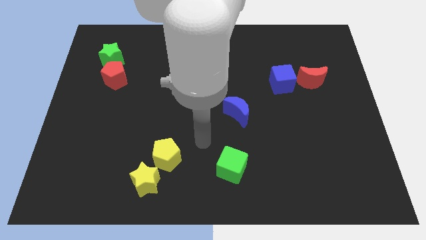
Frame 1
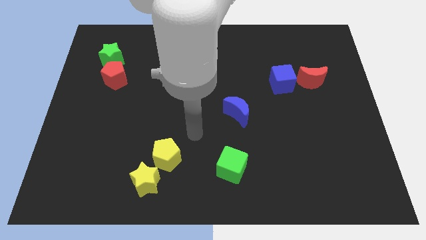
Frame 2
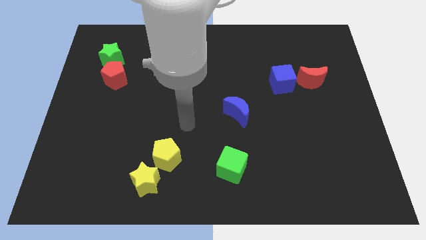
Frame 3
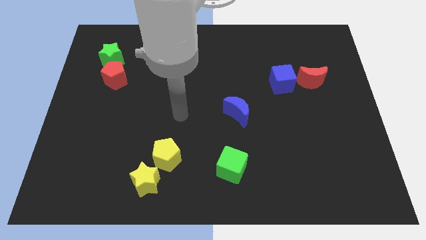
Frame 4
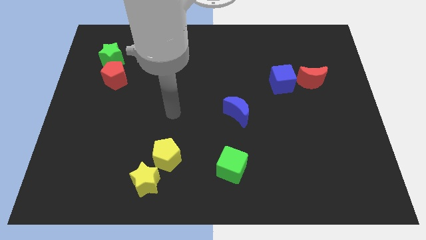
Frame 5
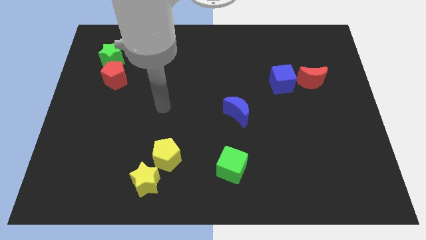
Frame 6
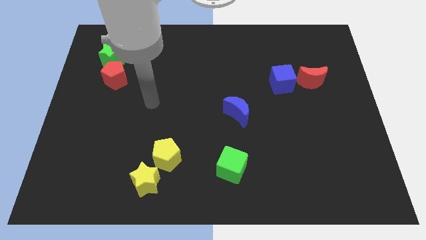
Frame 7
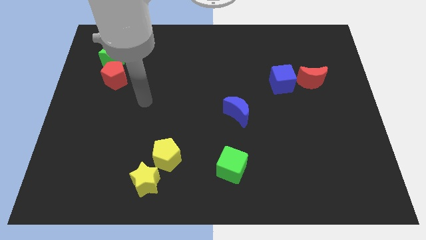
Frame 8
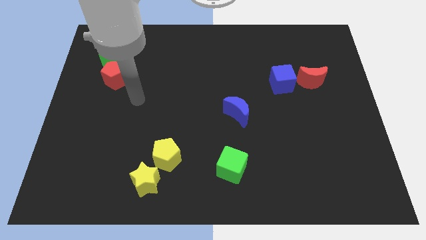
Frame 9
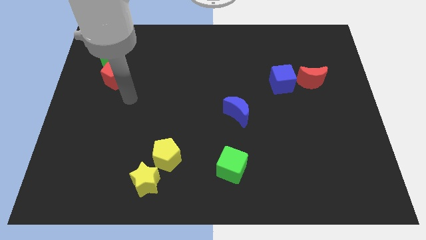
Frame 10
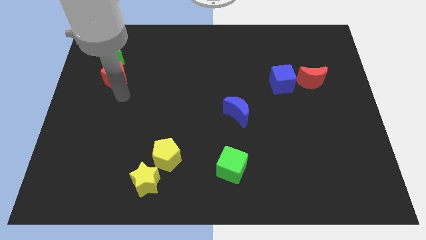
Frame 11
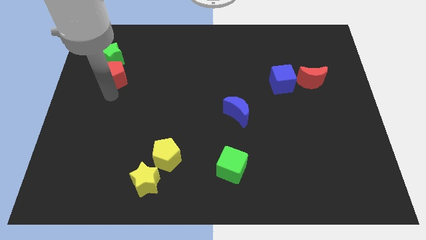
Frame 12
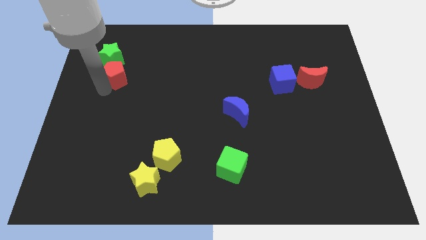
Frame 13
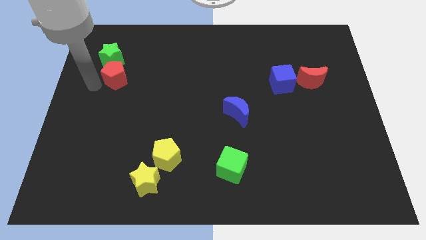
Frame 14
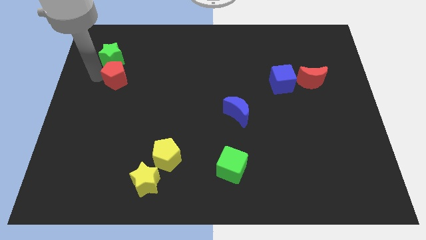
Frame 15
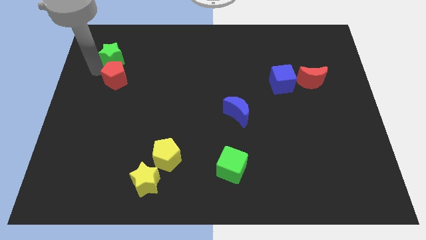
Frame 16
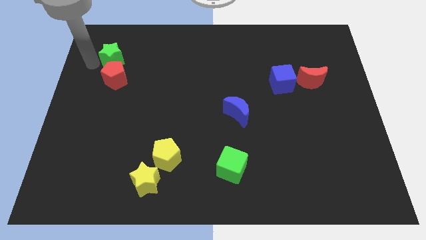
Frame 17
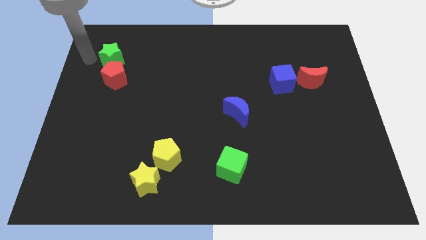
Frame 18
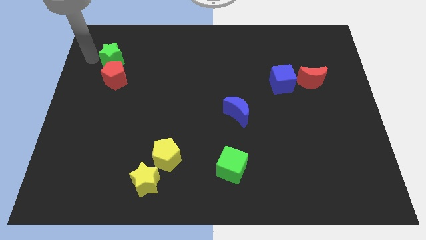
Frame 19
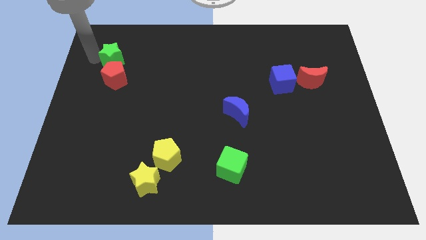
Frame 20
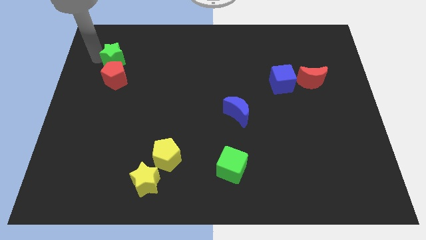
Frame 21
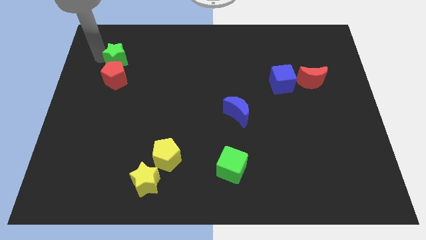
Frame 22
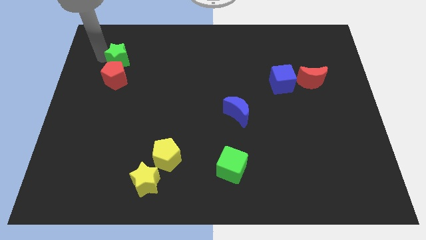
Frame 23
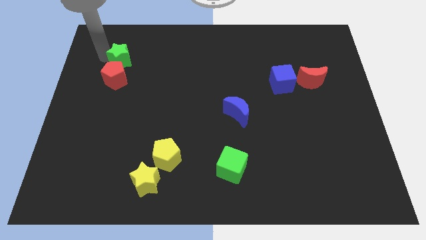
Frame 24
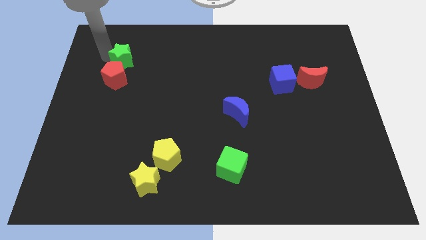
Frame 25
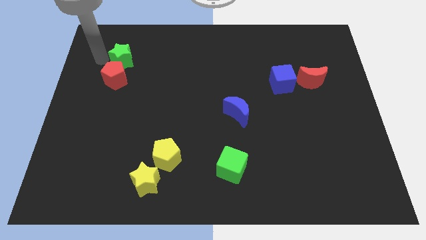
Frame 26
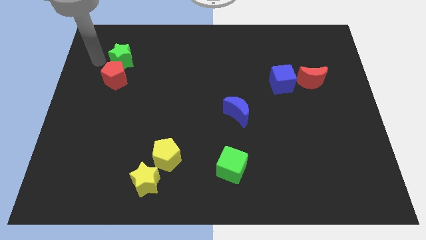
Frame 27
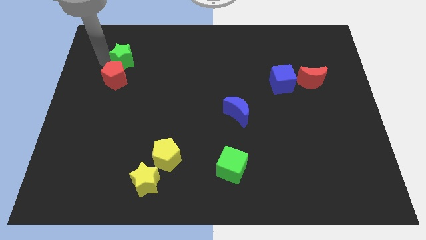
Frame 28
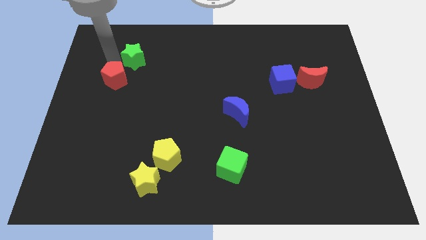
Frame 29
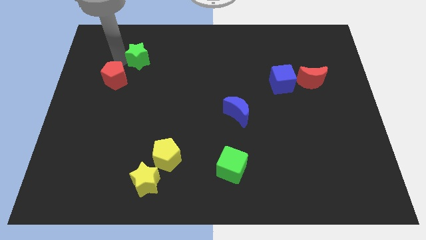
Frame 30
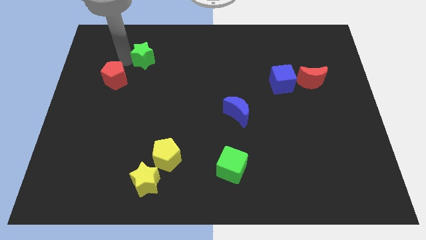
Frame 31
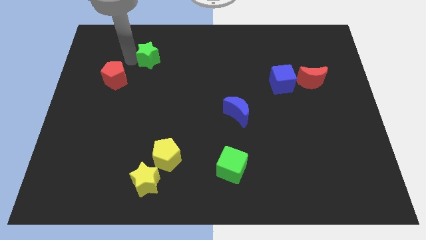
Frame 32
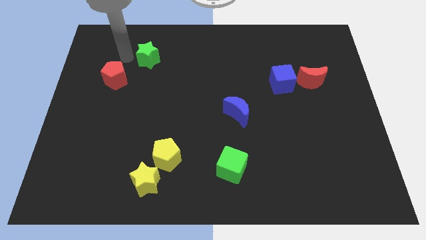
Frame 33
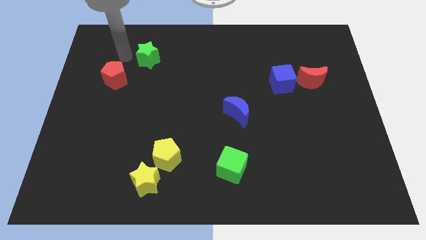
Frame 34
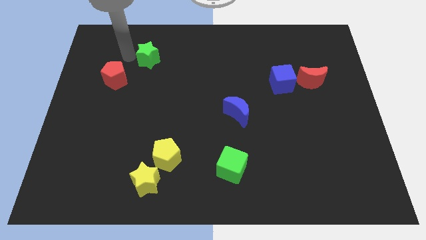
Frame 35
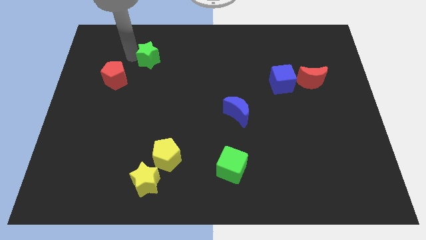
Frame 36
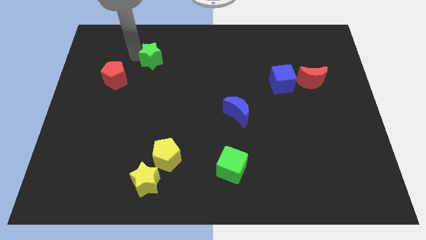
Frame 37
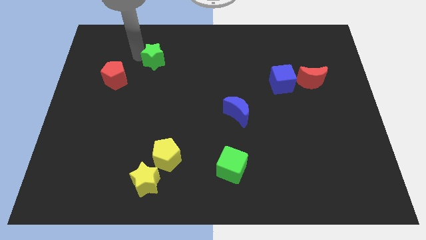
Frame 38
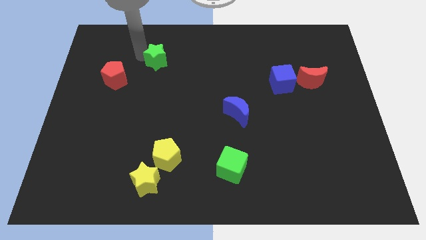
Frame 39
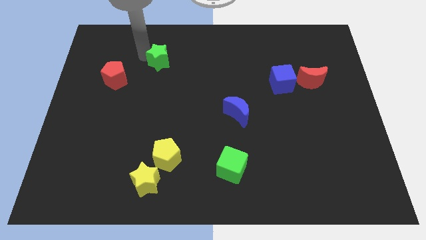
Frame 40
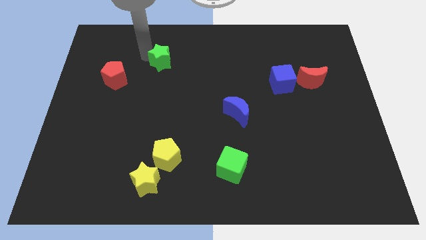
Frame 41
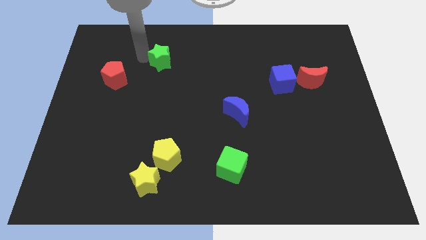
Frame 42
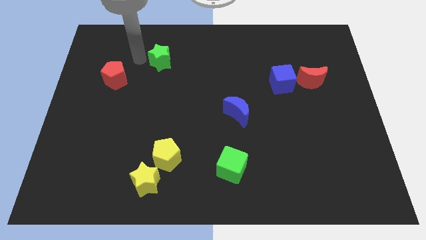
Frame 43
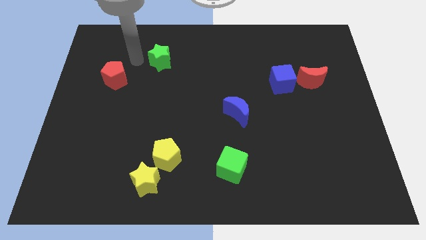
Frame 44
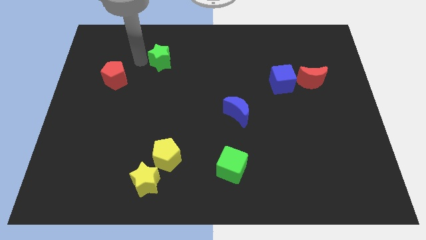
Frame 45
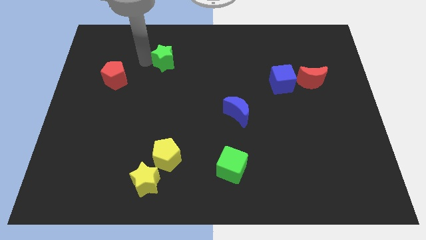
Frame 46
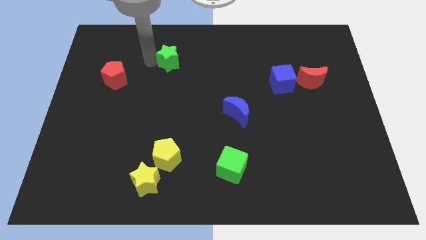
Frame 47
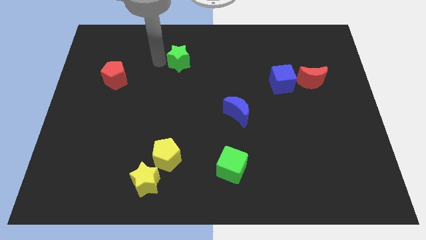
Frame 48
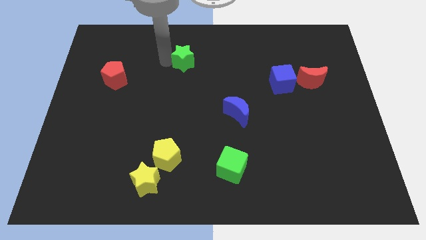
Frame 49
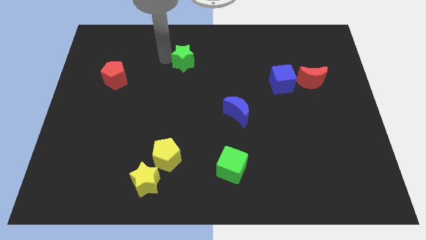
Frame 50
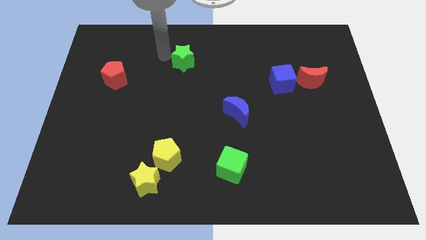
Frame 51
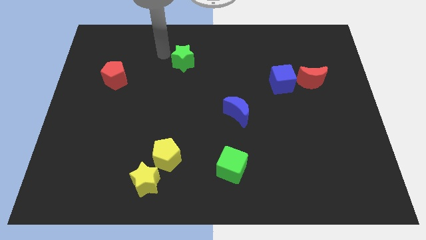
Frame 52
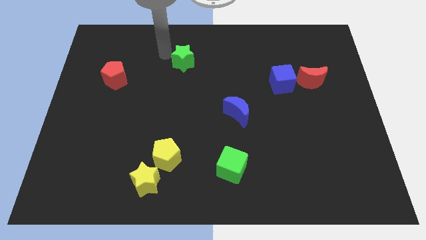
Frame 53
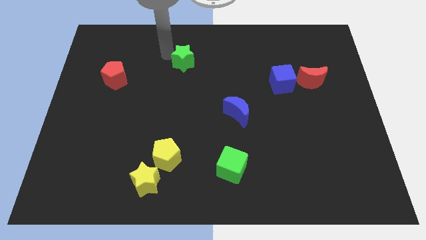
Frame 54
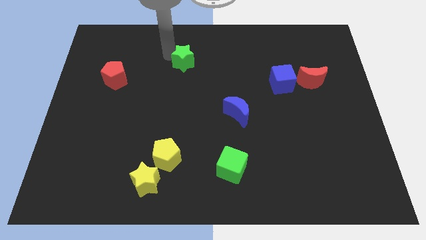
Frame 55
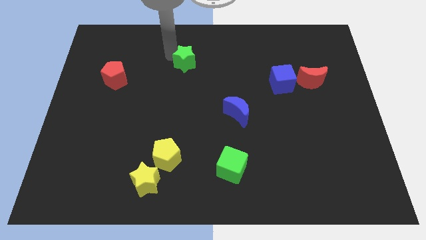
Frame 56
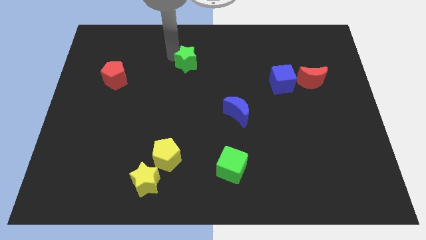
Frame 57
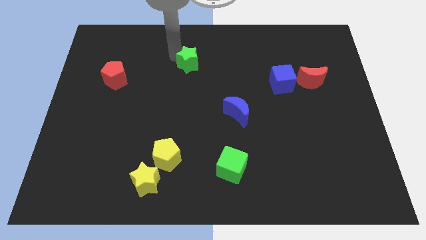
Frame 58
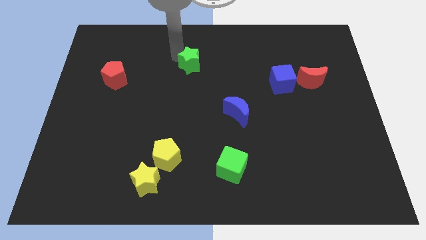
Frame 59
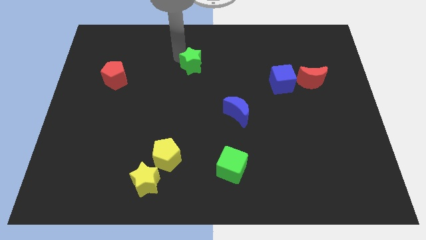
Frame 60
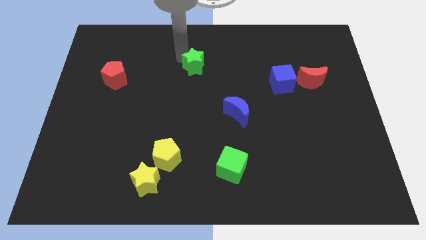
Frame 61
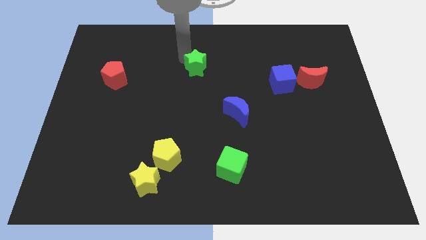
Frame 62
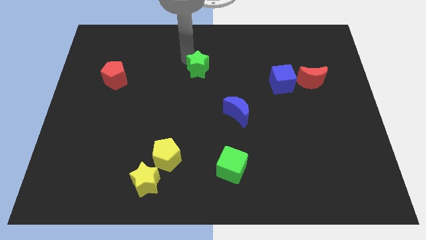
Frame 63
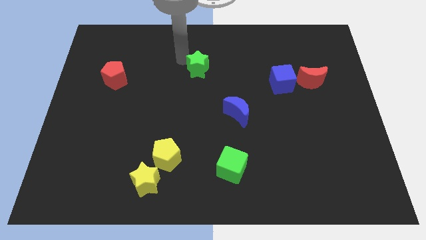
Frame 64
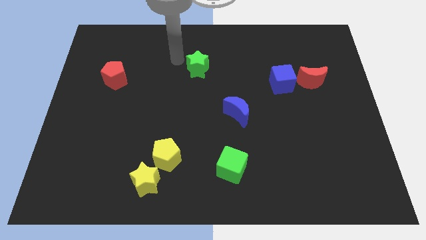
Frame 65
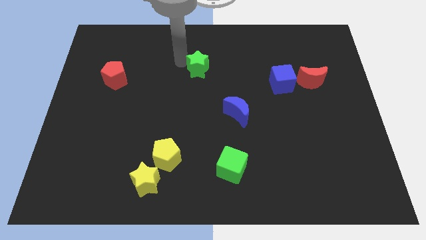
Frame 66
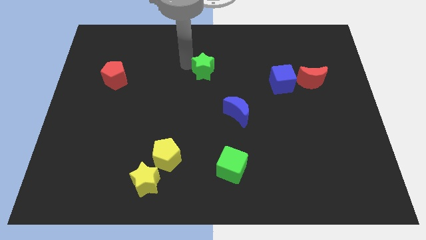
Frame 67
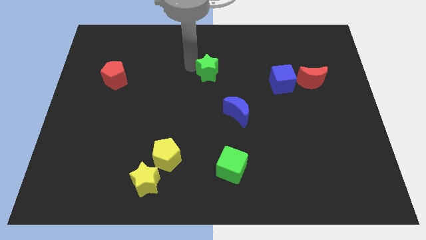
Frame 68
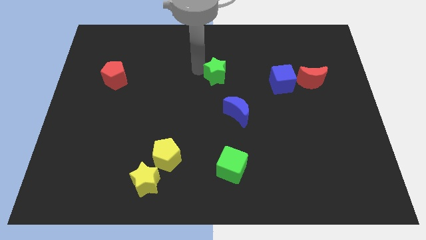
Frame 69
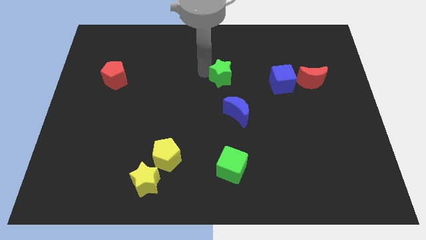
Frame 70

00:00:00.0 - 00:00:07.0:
slide the green star to the left of the blue cube

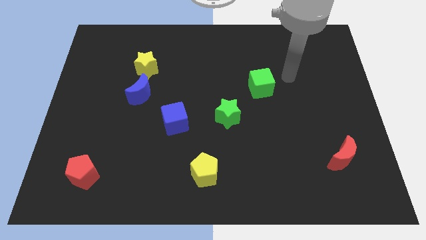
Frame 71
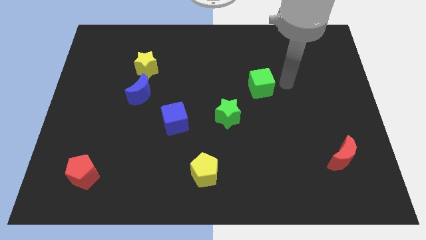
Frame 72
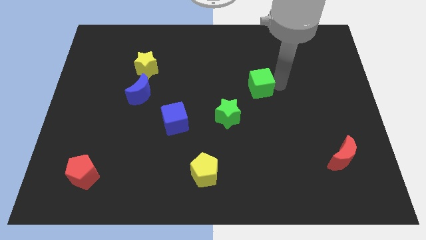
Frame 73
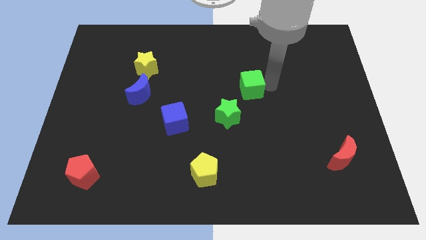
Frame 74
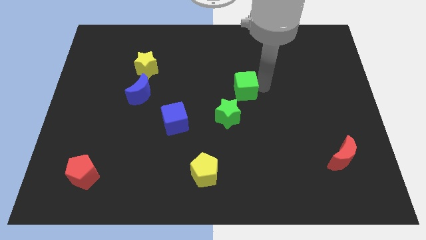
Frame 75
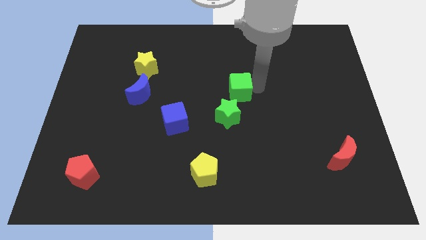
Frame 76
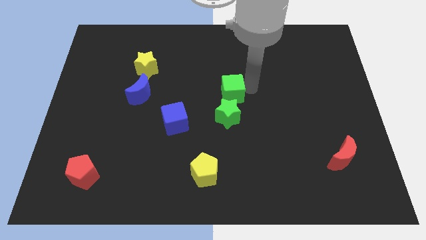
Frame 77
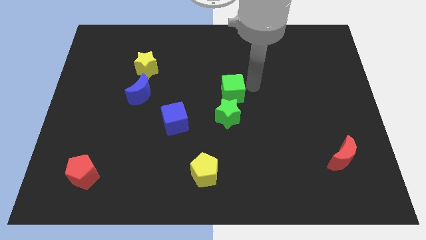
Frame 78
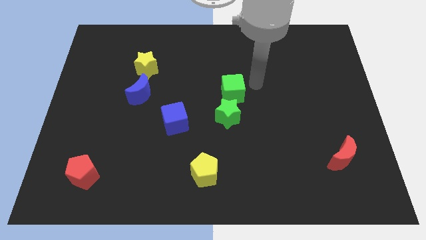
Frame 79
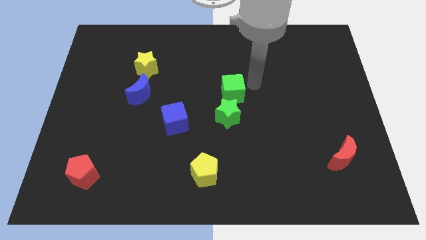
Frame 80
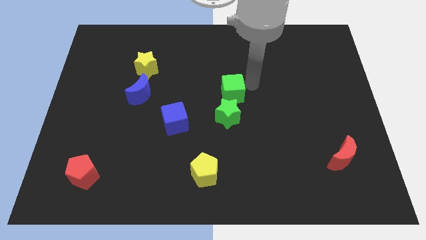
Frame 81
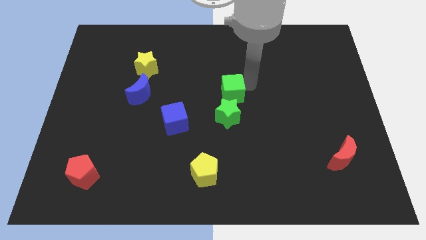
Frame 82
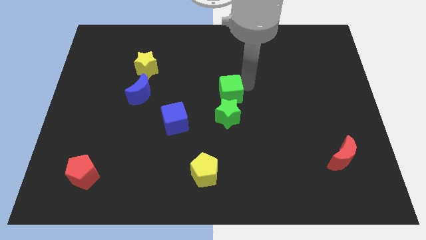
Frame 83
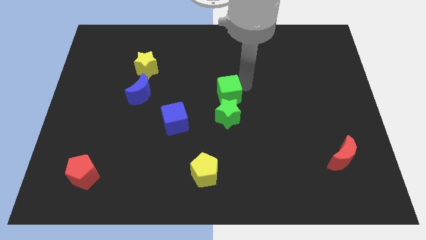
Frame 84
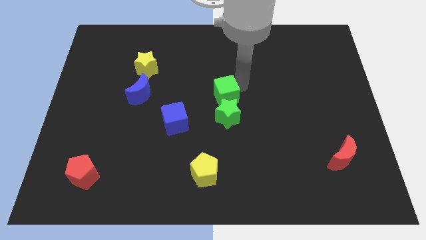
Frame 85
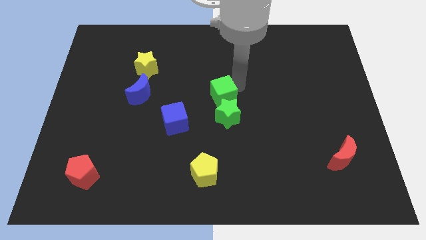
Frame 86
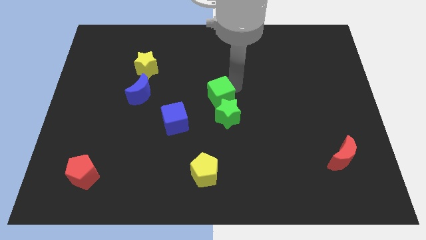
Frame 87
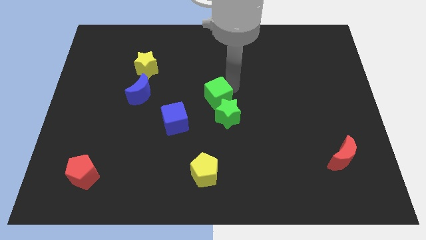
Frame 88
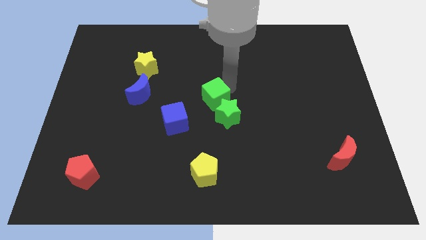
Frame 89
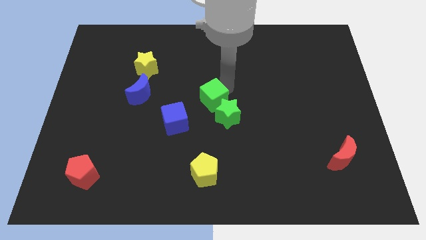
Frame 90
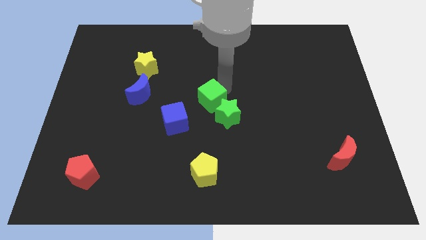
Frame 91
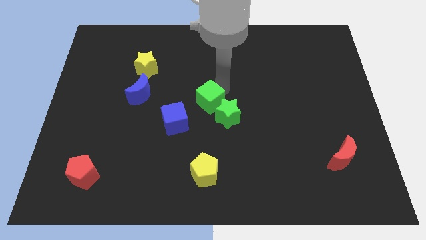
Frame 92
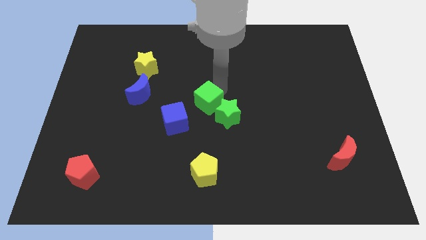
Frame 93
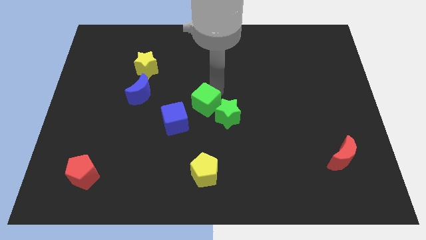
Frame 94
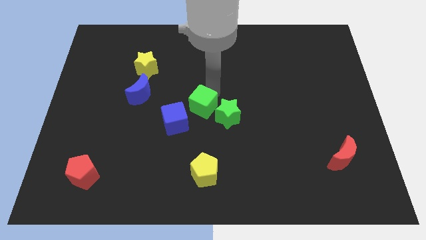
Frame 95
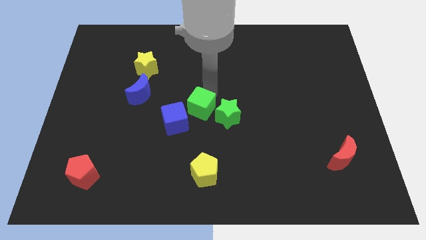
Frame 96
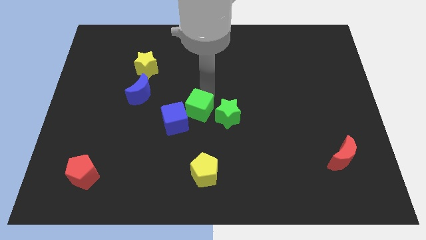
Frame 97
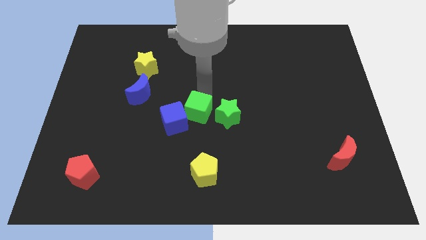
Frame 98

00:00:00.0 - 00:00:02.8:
move the green cube to the top of the yellow pentagon
